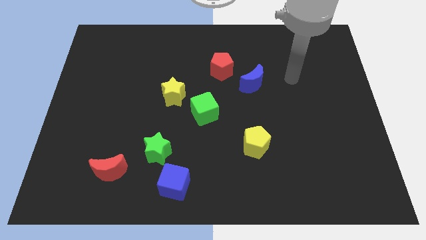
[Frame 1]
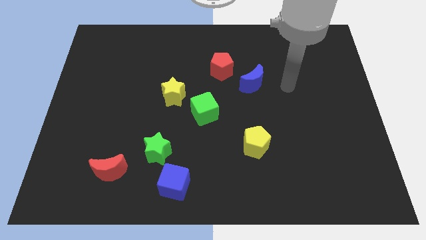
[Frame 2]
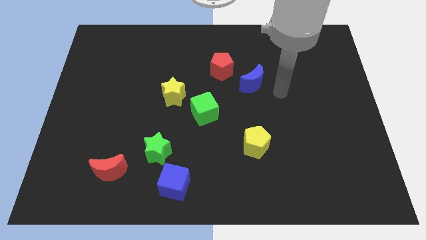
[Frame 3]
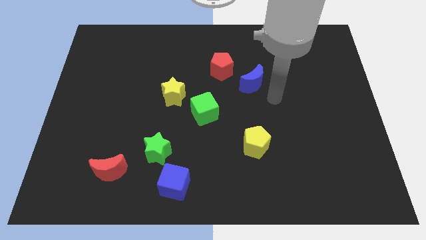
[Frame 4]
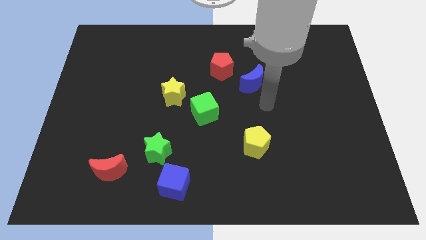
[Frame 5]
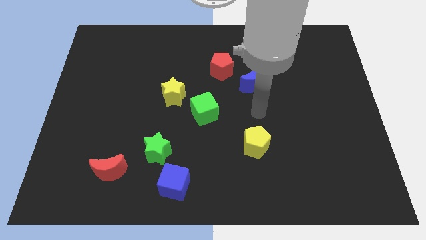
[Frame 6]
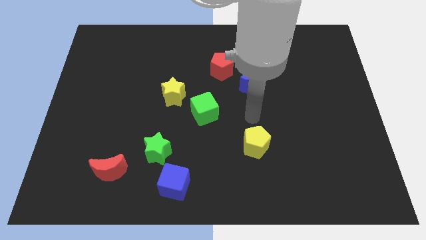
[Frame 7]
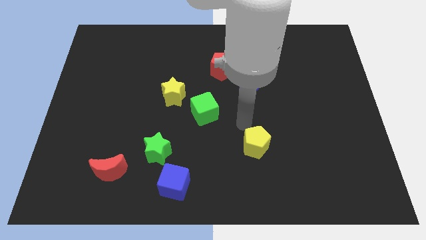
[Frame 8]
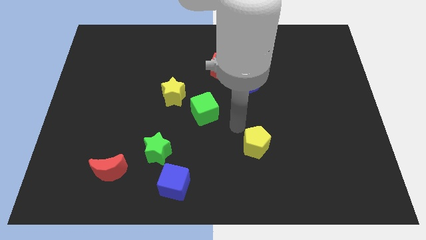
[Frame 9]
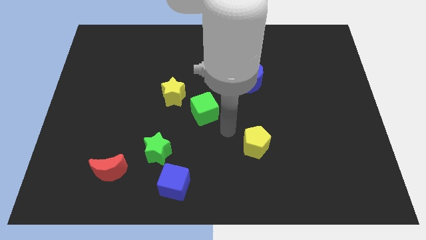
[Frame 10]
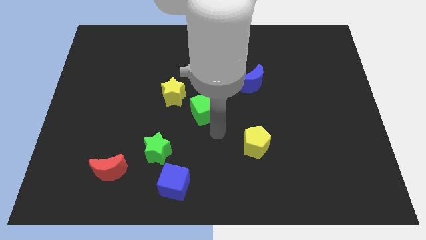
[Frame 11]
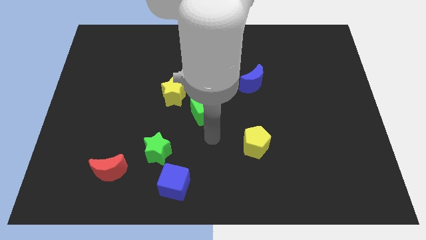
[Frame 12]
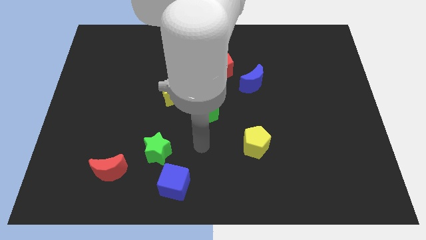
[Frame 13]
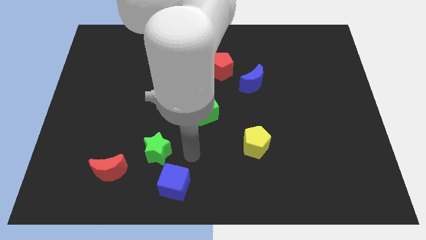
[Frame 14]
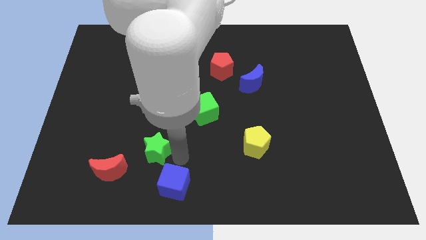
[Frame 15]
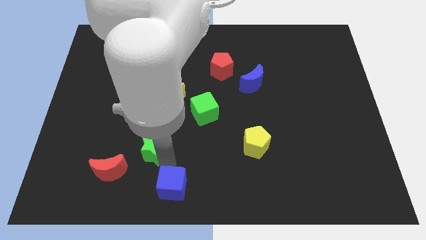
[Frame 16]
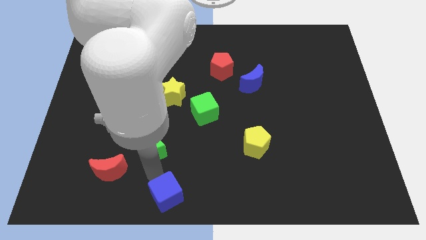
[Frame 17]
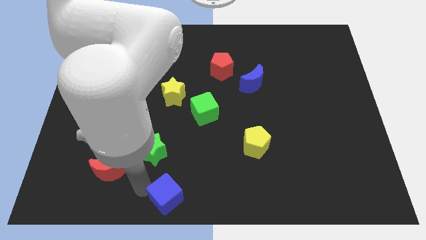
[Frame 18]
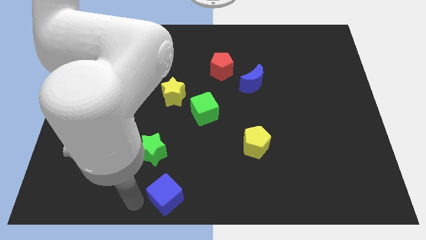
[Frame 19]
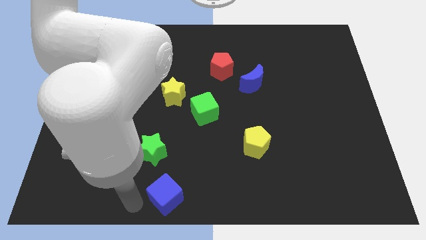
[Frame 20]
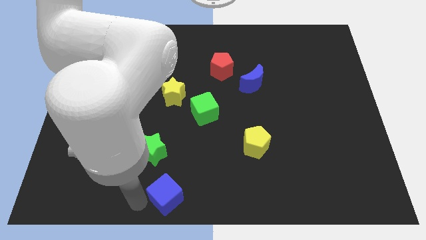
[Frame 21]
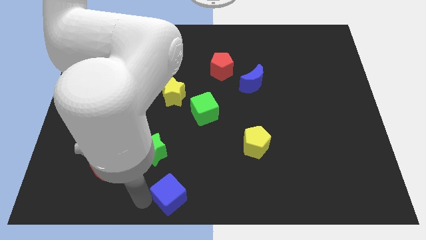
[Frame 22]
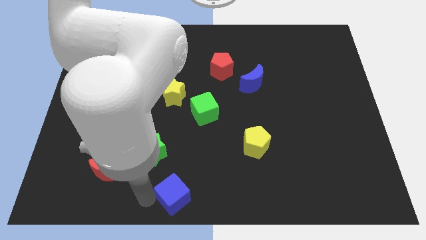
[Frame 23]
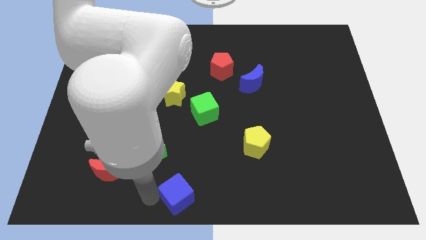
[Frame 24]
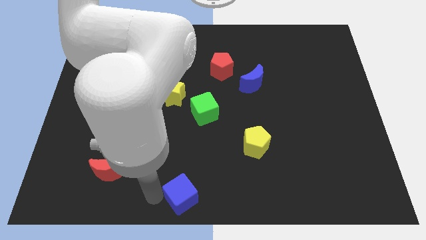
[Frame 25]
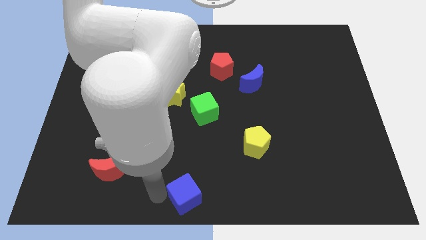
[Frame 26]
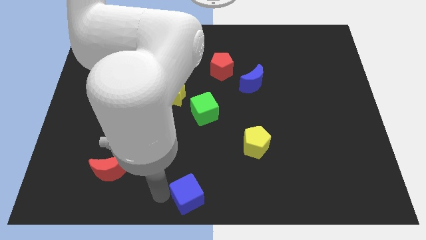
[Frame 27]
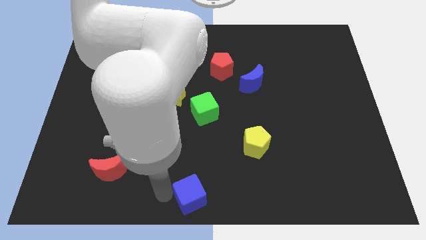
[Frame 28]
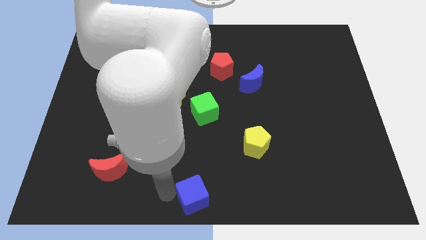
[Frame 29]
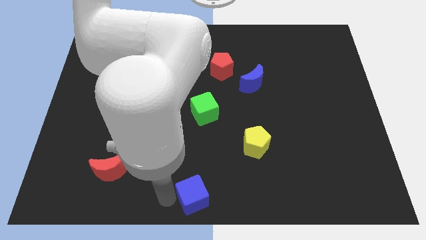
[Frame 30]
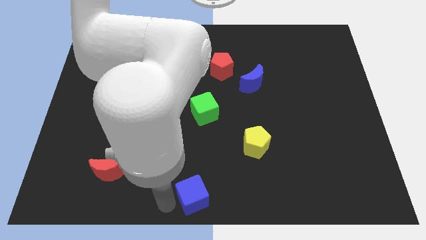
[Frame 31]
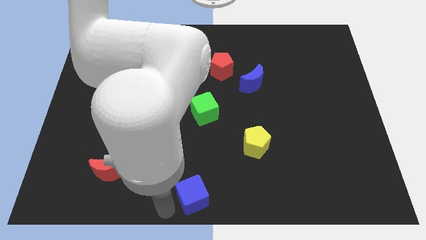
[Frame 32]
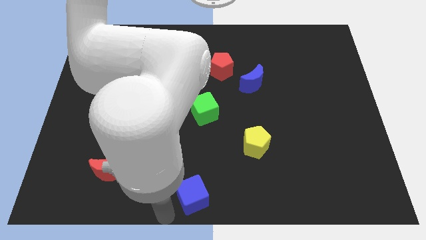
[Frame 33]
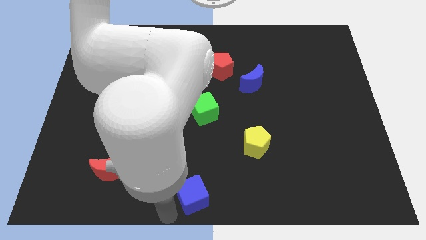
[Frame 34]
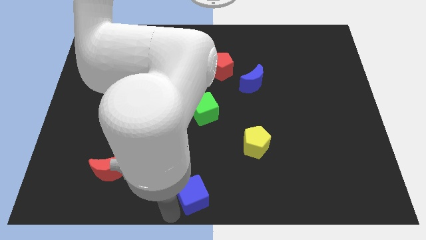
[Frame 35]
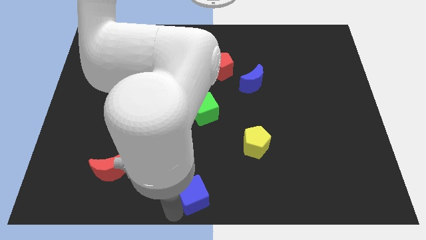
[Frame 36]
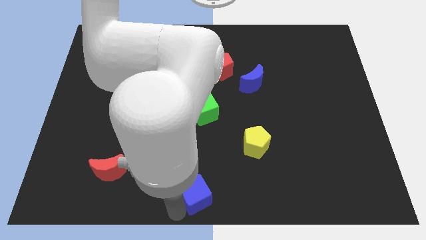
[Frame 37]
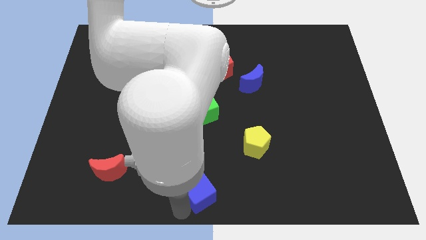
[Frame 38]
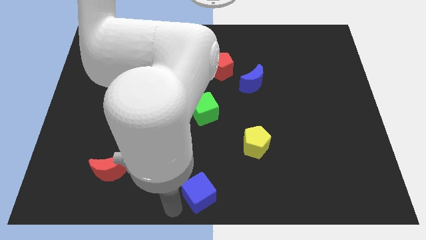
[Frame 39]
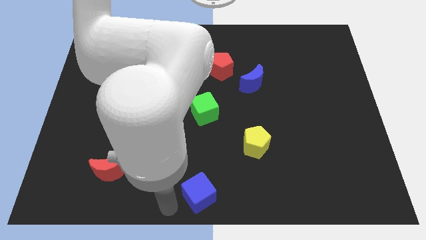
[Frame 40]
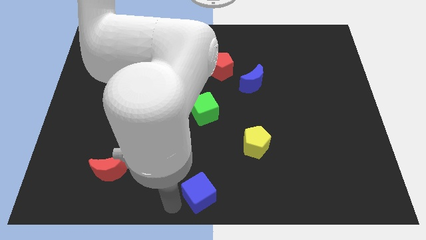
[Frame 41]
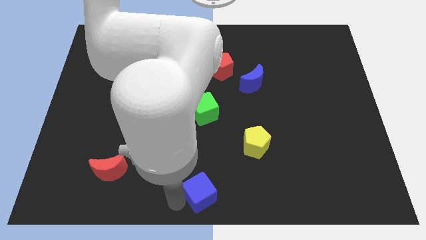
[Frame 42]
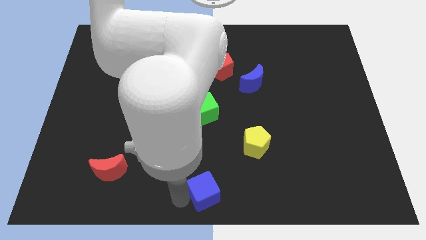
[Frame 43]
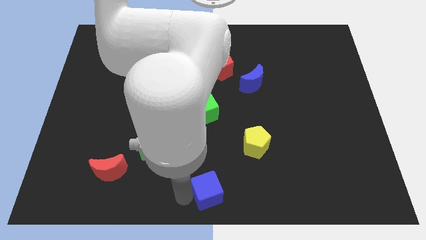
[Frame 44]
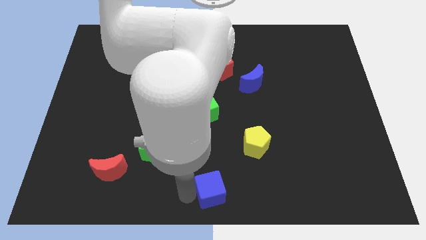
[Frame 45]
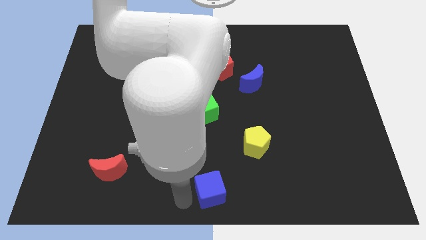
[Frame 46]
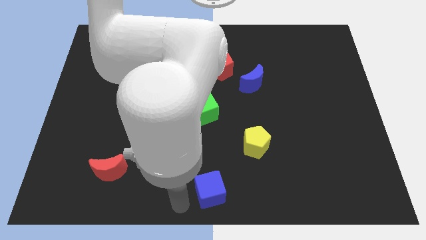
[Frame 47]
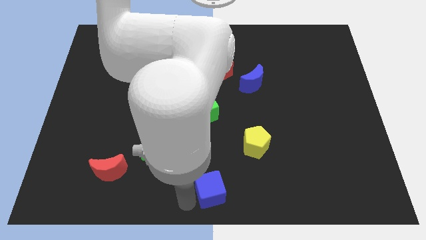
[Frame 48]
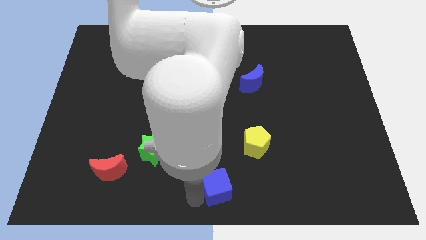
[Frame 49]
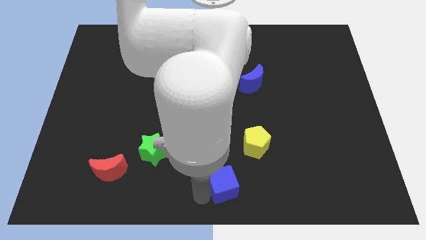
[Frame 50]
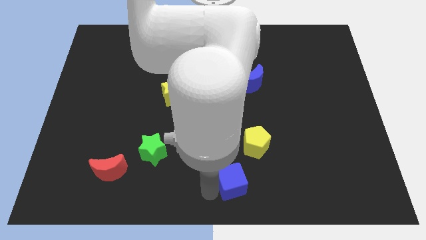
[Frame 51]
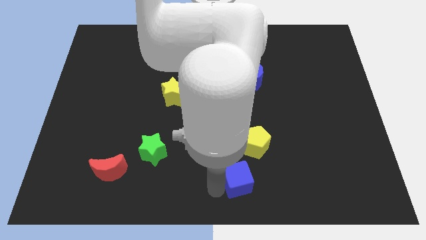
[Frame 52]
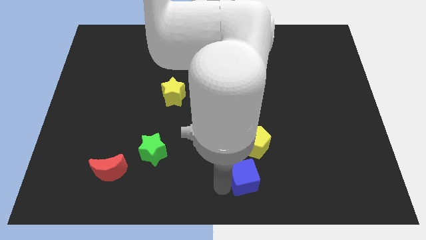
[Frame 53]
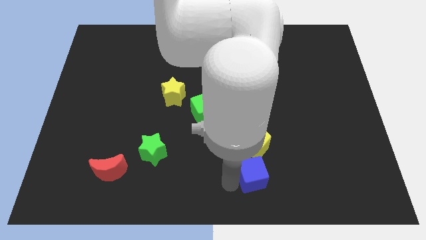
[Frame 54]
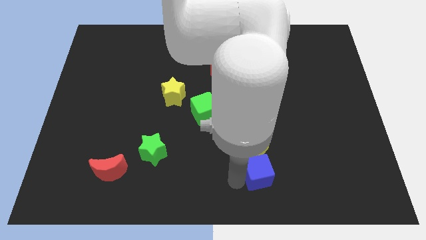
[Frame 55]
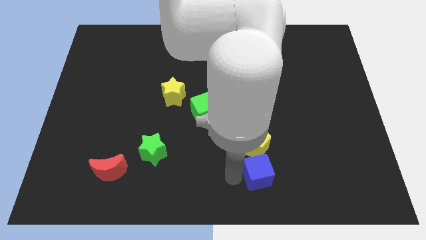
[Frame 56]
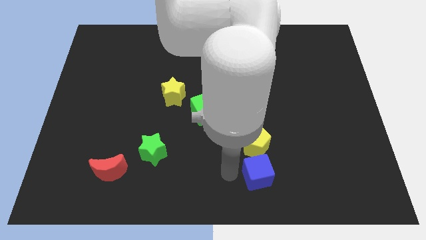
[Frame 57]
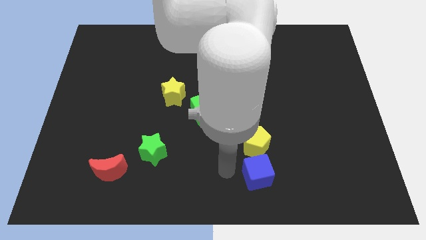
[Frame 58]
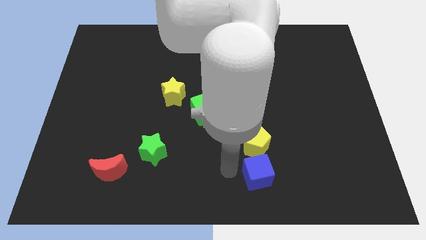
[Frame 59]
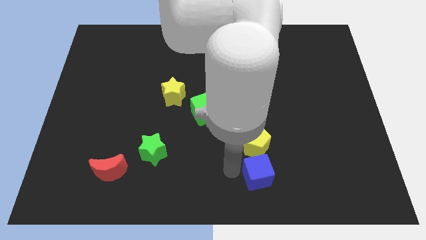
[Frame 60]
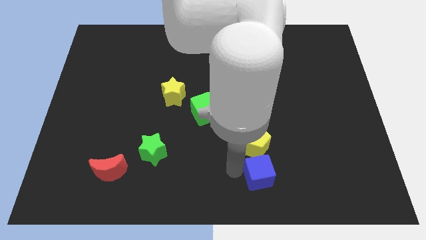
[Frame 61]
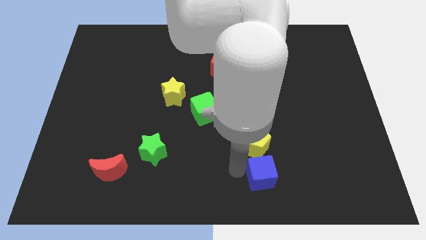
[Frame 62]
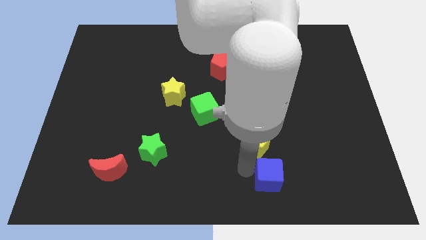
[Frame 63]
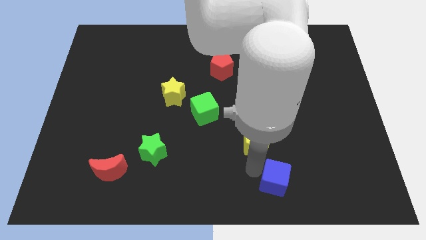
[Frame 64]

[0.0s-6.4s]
push the blue cube right

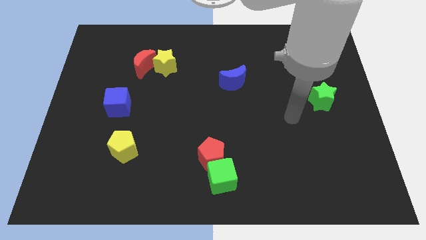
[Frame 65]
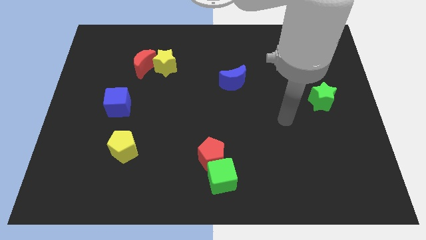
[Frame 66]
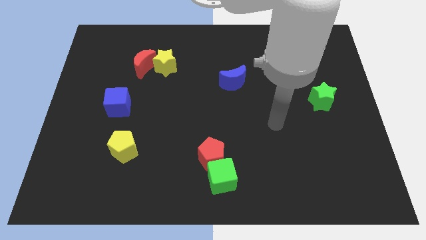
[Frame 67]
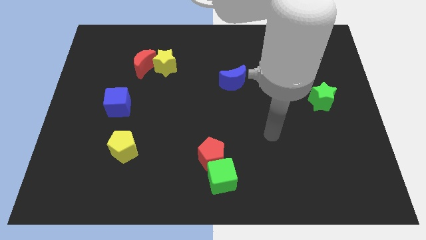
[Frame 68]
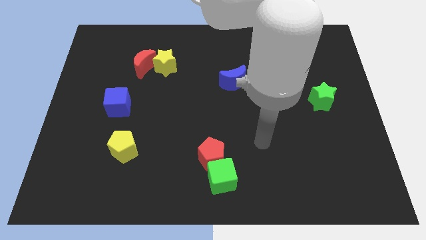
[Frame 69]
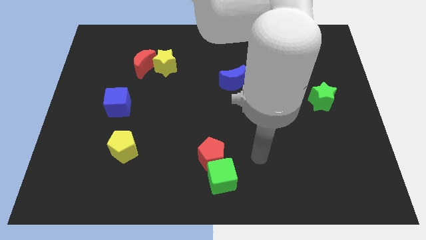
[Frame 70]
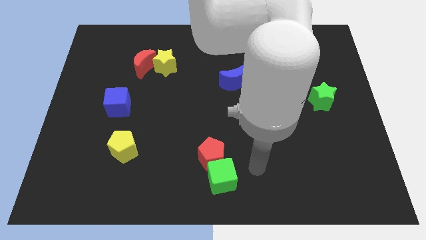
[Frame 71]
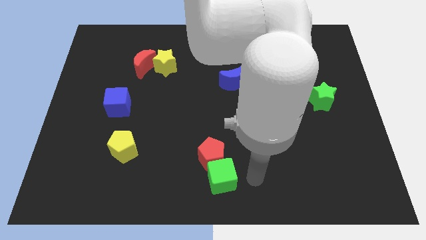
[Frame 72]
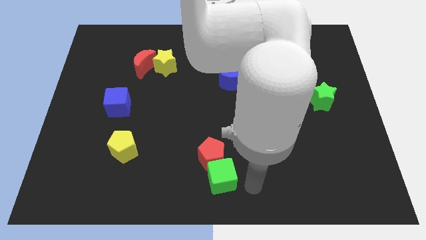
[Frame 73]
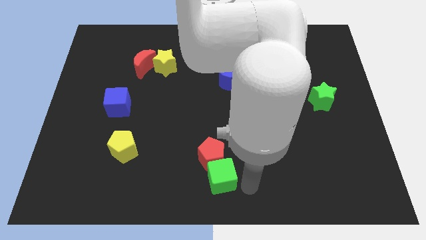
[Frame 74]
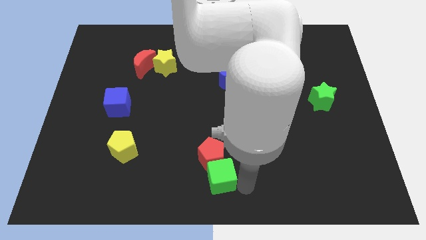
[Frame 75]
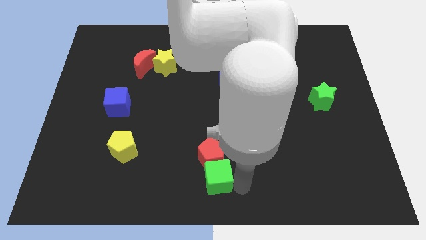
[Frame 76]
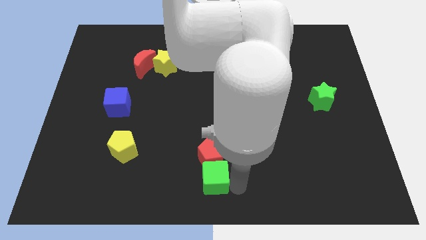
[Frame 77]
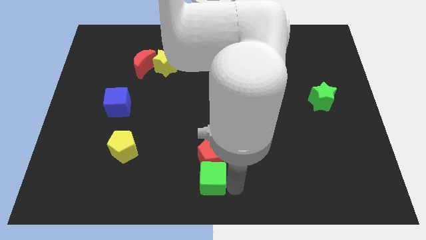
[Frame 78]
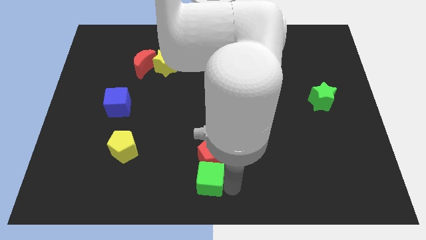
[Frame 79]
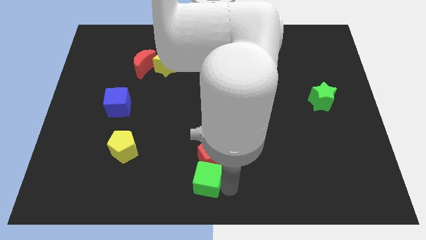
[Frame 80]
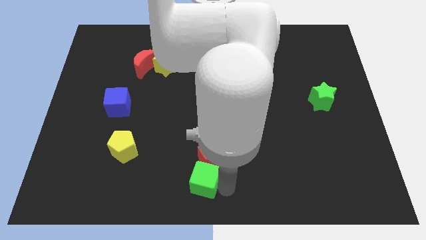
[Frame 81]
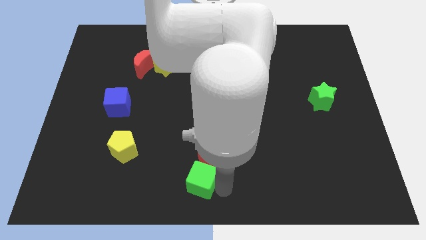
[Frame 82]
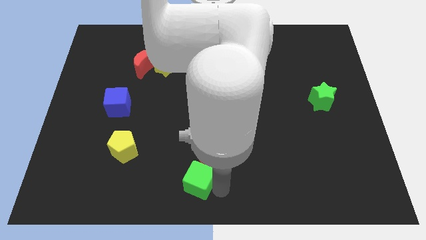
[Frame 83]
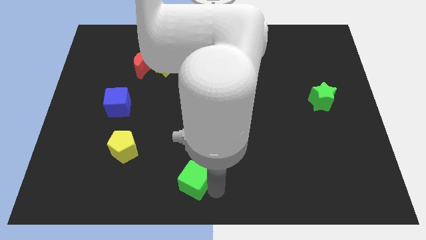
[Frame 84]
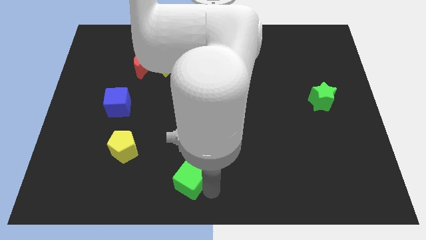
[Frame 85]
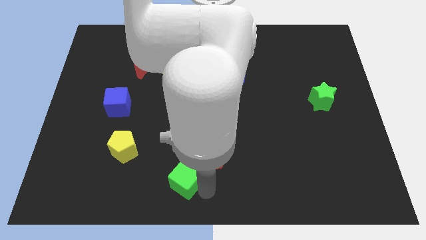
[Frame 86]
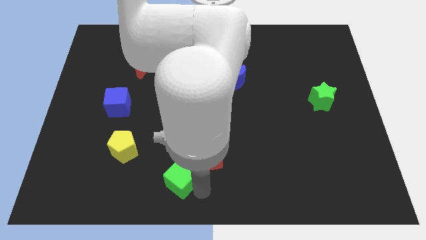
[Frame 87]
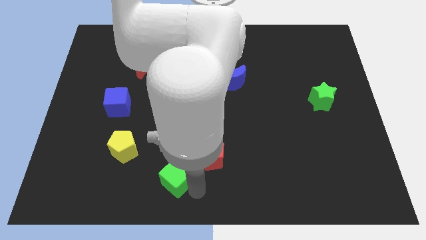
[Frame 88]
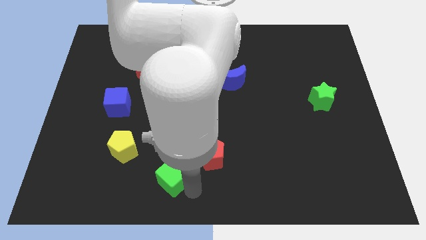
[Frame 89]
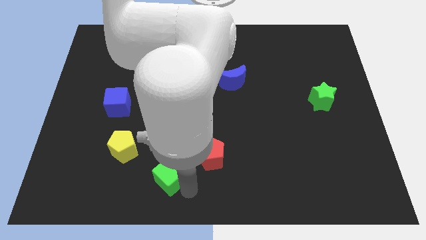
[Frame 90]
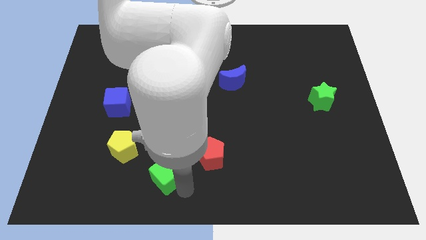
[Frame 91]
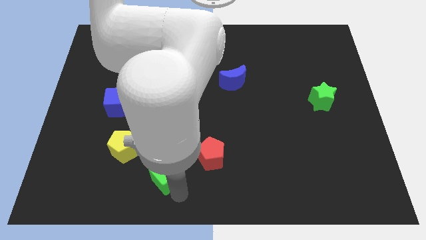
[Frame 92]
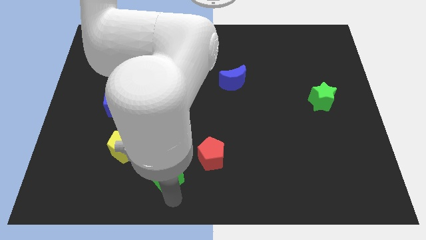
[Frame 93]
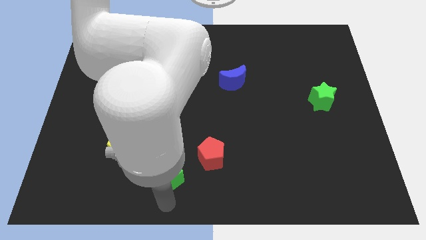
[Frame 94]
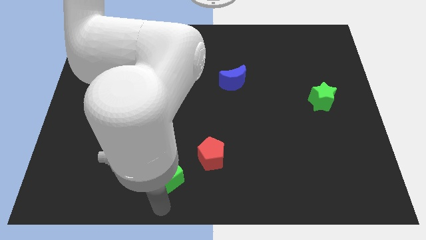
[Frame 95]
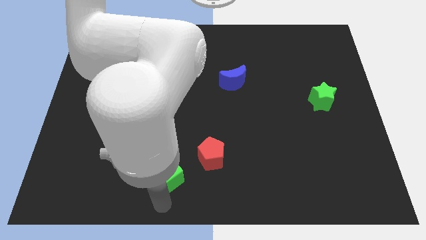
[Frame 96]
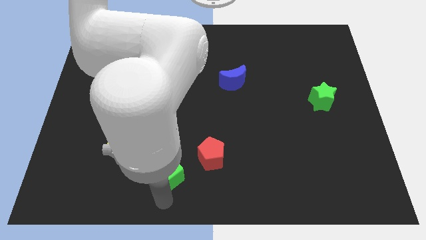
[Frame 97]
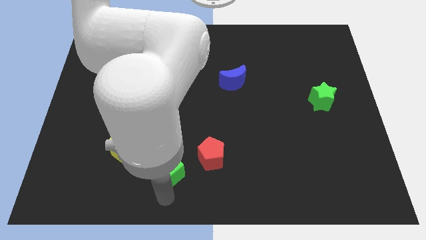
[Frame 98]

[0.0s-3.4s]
move the green cube up and left a little bit
